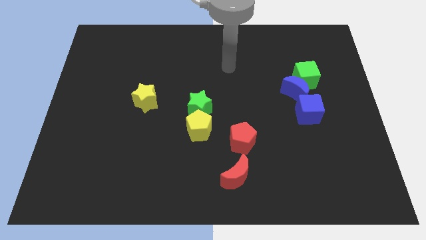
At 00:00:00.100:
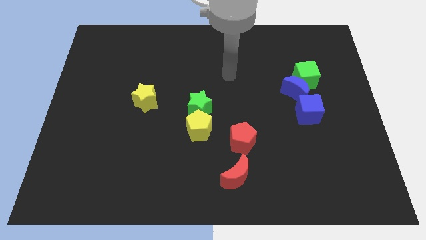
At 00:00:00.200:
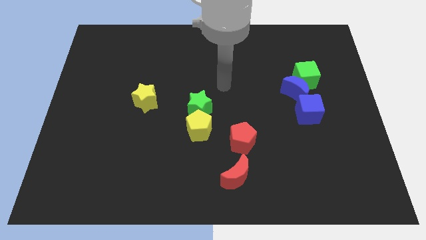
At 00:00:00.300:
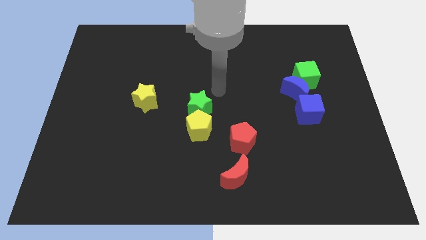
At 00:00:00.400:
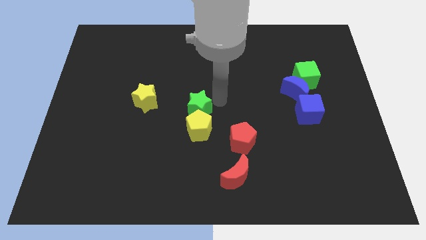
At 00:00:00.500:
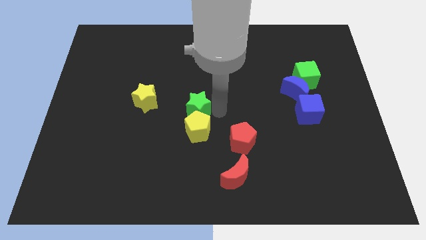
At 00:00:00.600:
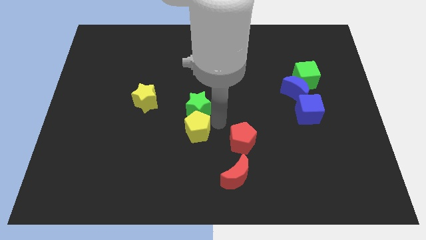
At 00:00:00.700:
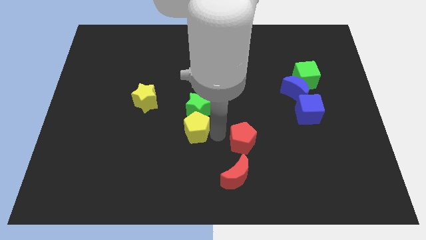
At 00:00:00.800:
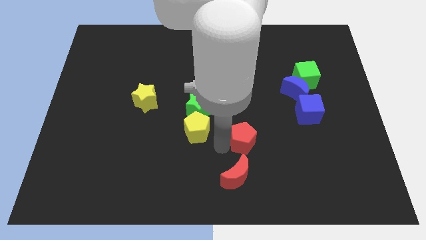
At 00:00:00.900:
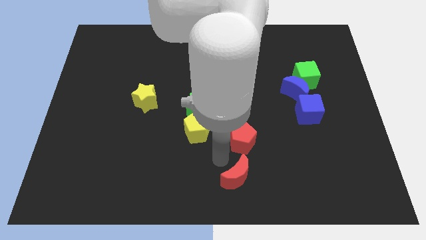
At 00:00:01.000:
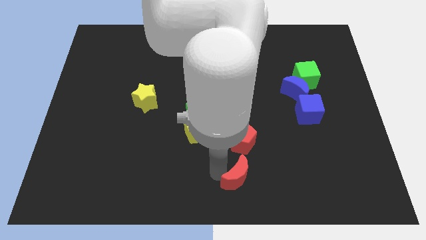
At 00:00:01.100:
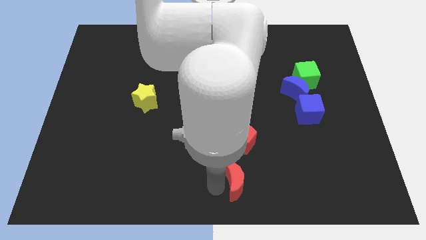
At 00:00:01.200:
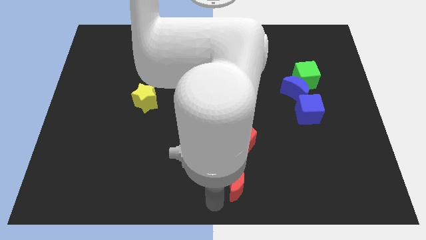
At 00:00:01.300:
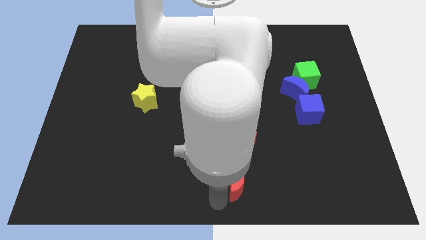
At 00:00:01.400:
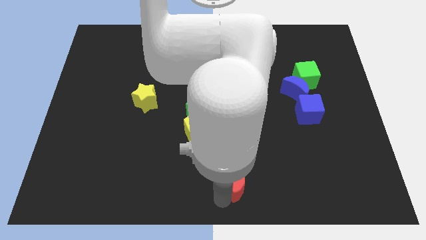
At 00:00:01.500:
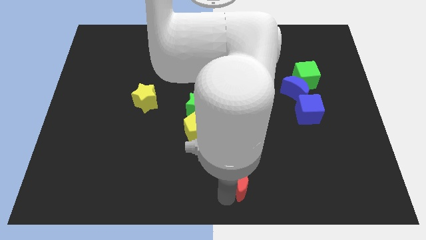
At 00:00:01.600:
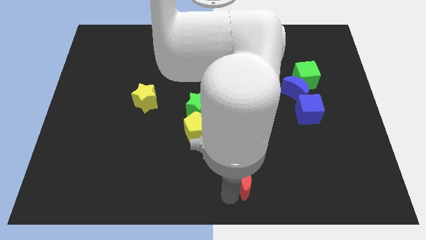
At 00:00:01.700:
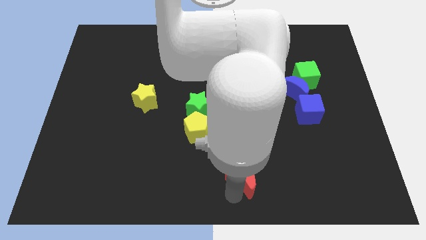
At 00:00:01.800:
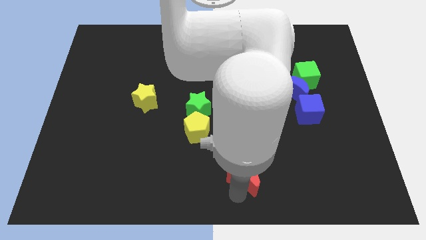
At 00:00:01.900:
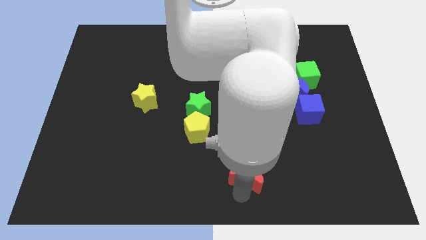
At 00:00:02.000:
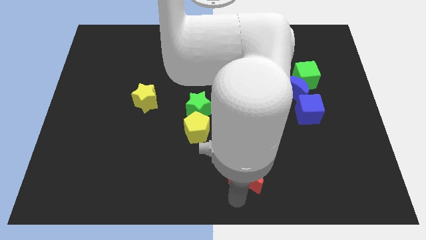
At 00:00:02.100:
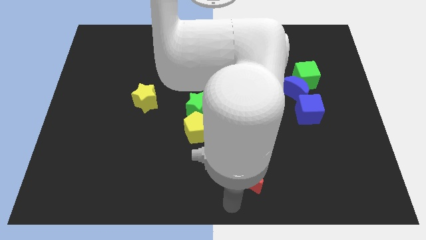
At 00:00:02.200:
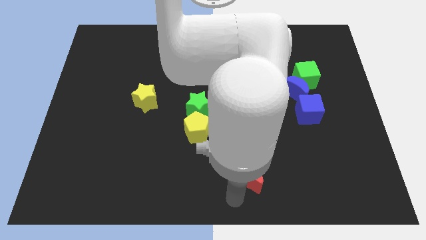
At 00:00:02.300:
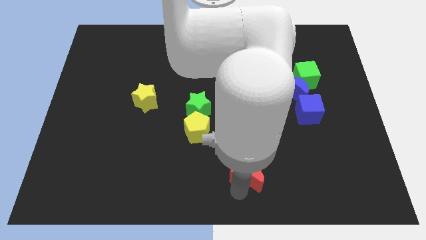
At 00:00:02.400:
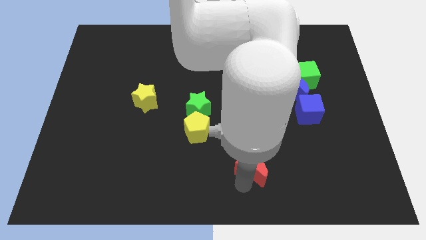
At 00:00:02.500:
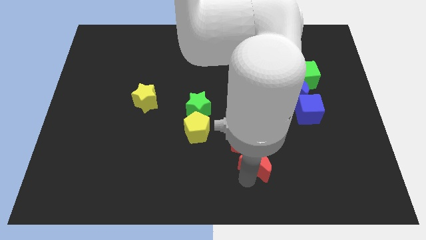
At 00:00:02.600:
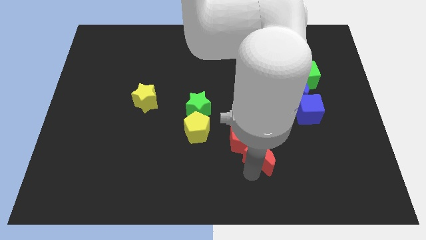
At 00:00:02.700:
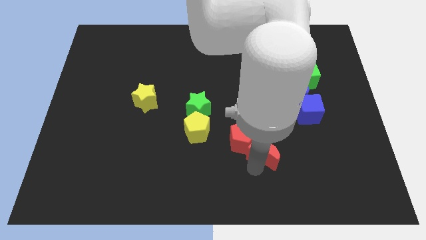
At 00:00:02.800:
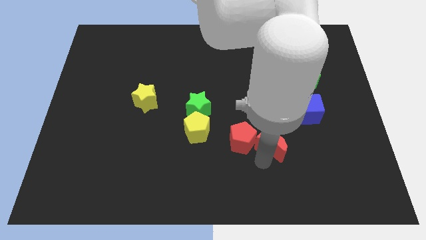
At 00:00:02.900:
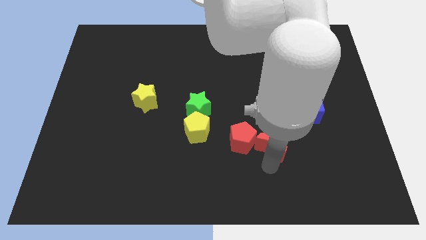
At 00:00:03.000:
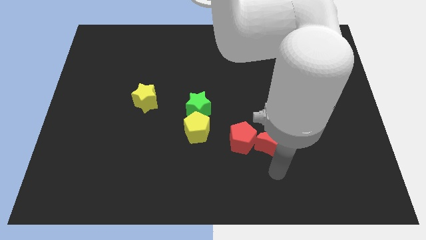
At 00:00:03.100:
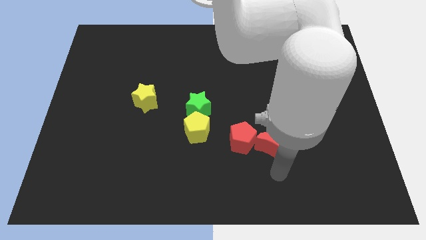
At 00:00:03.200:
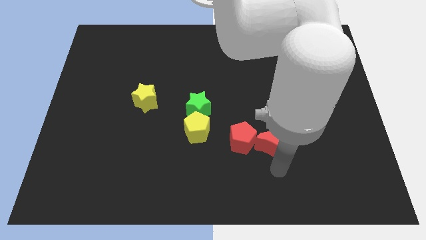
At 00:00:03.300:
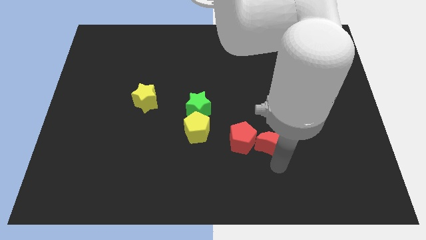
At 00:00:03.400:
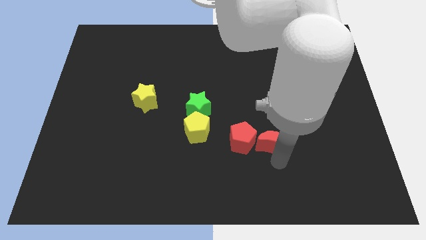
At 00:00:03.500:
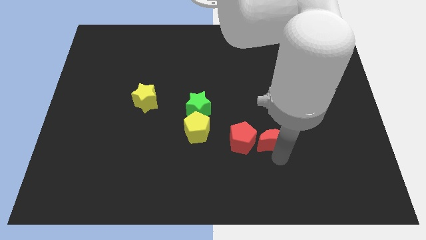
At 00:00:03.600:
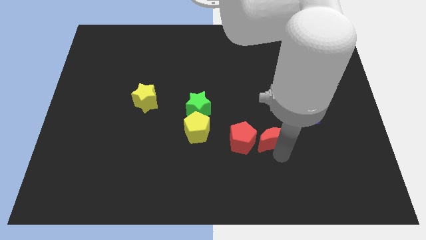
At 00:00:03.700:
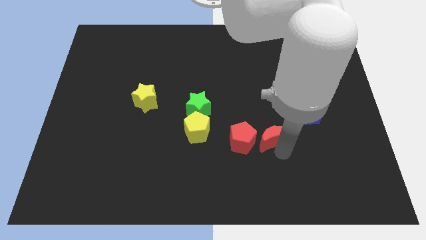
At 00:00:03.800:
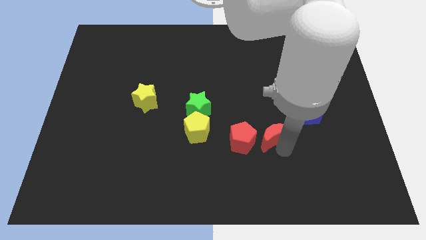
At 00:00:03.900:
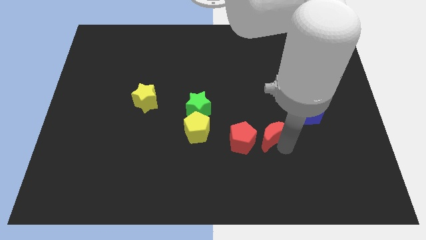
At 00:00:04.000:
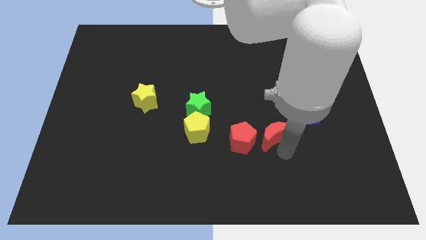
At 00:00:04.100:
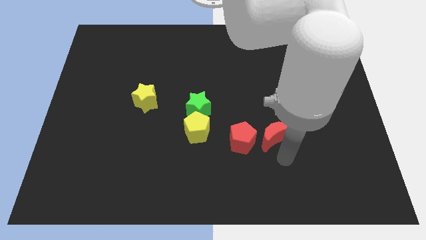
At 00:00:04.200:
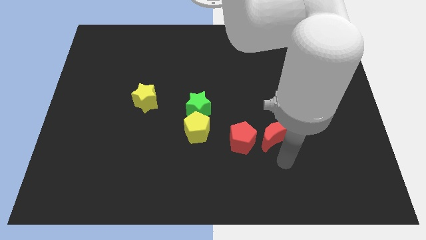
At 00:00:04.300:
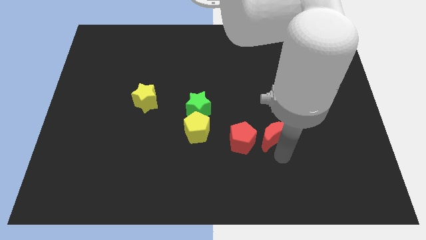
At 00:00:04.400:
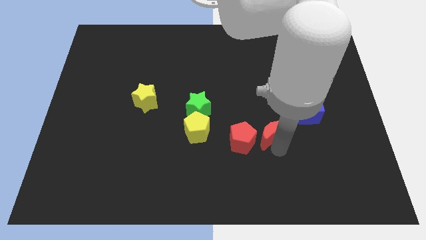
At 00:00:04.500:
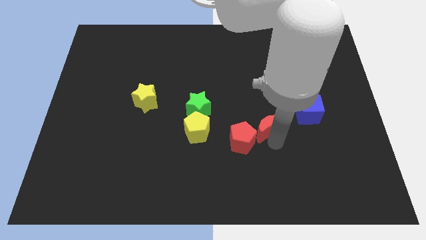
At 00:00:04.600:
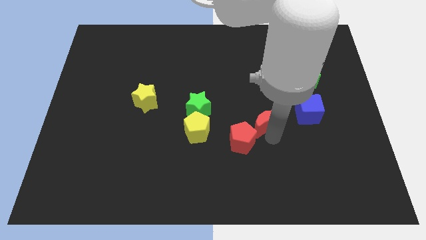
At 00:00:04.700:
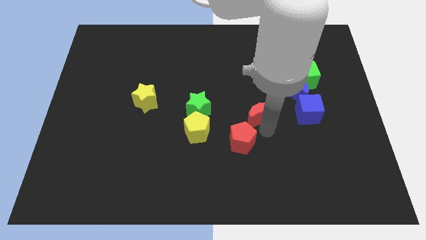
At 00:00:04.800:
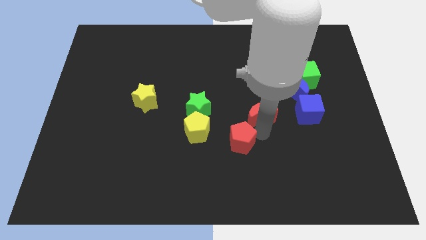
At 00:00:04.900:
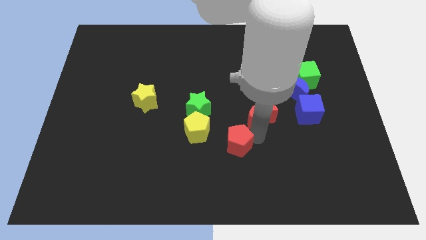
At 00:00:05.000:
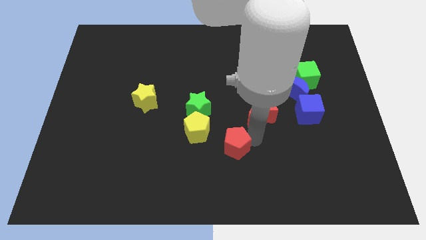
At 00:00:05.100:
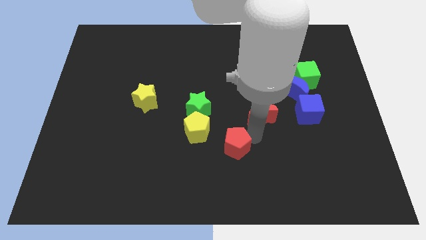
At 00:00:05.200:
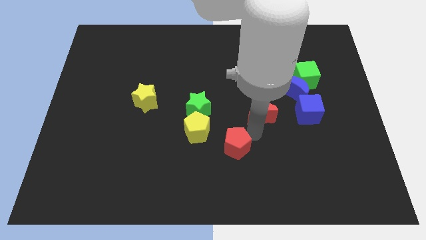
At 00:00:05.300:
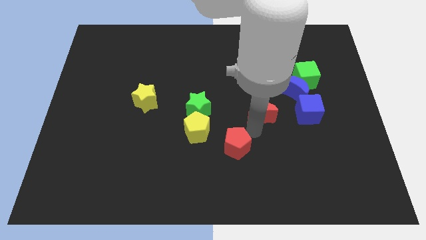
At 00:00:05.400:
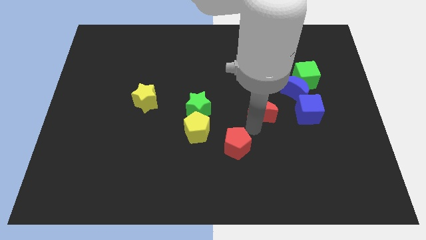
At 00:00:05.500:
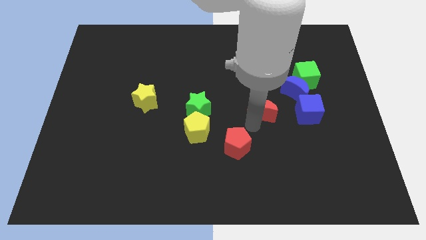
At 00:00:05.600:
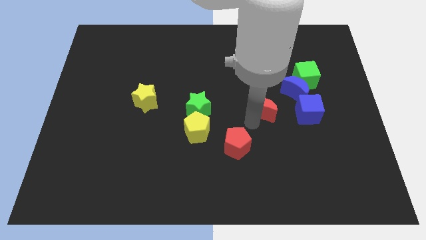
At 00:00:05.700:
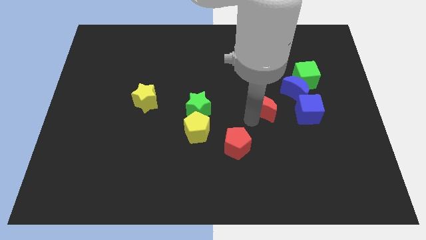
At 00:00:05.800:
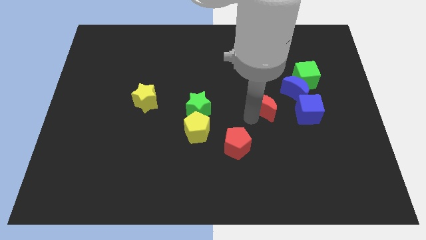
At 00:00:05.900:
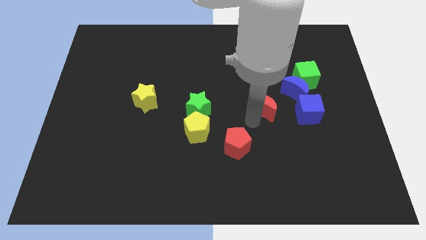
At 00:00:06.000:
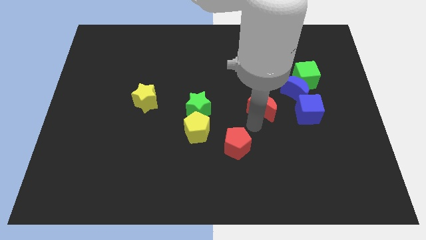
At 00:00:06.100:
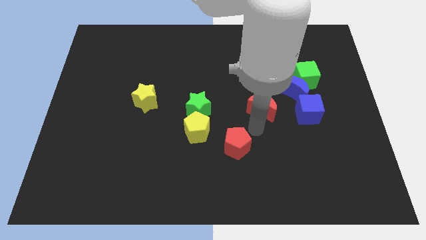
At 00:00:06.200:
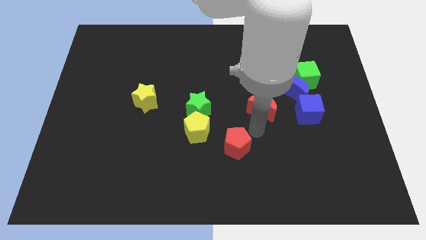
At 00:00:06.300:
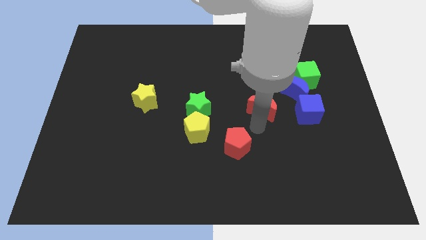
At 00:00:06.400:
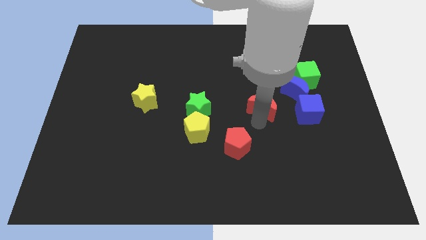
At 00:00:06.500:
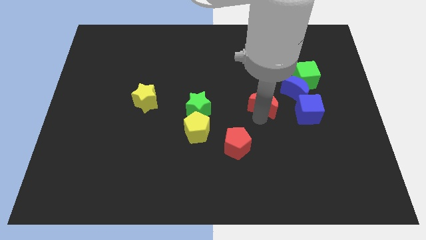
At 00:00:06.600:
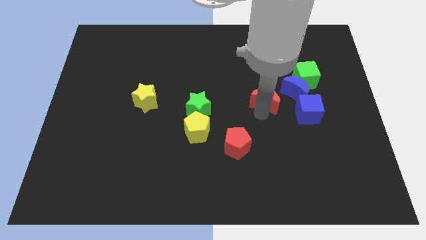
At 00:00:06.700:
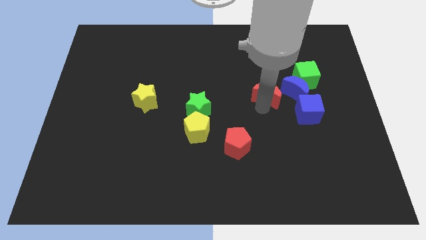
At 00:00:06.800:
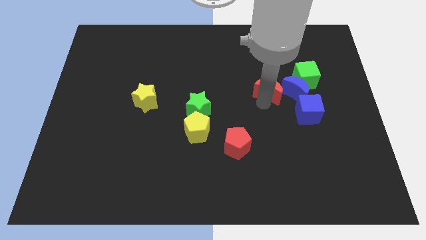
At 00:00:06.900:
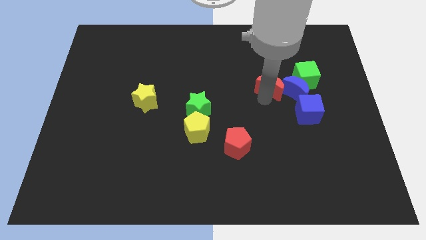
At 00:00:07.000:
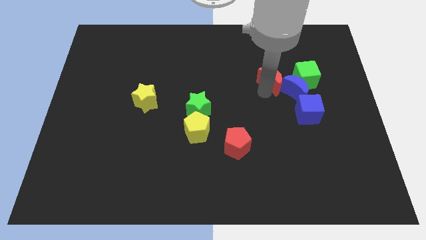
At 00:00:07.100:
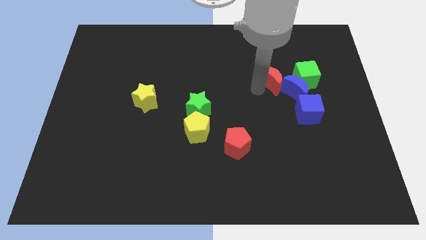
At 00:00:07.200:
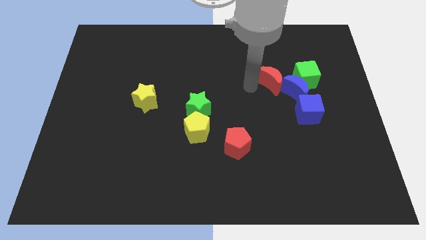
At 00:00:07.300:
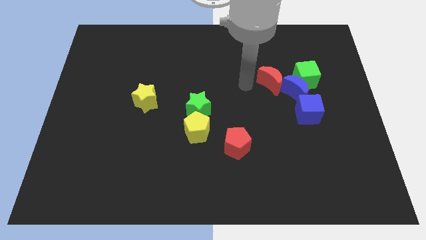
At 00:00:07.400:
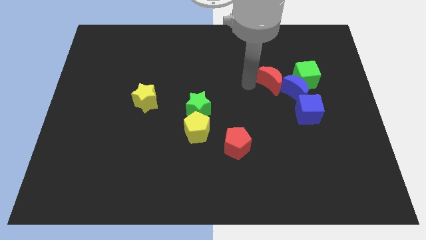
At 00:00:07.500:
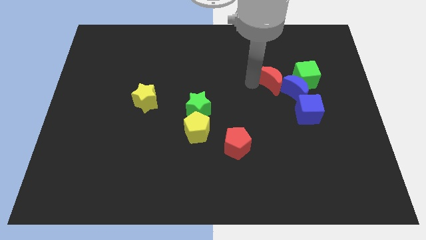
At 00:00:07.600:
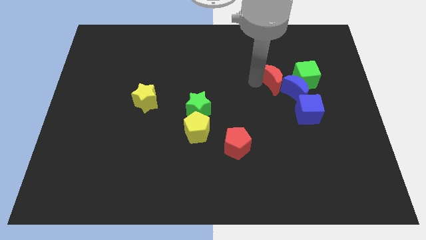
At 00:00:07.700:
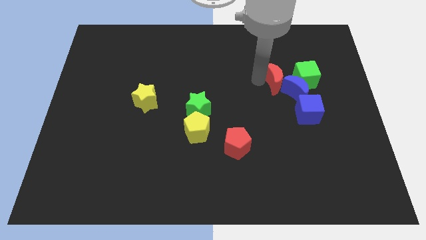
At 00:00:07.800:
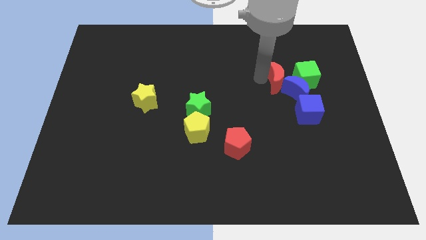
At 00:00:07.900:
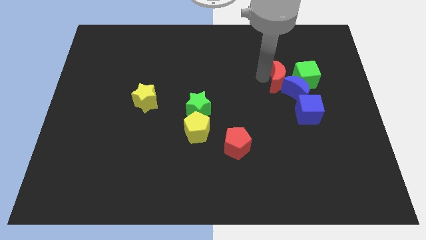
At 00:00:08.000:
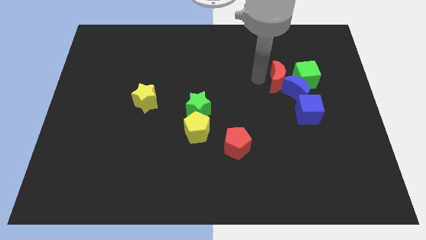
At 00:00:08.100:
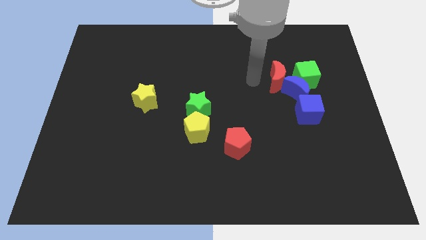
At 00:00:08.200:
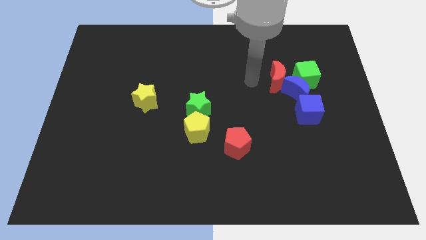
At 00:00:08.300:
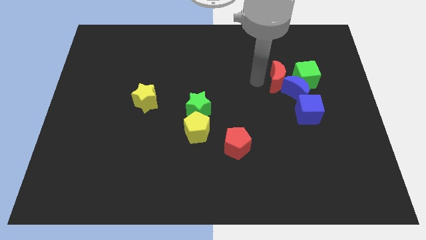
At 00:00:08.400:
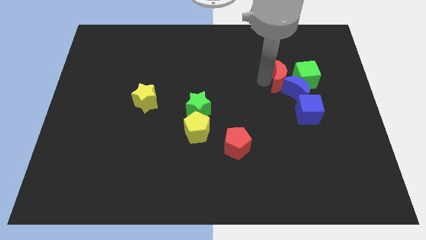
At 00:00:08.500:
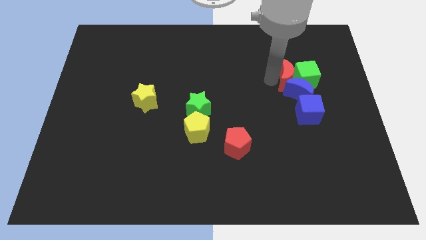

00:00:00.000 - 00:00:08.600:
slide the red moon close to the green cube
